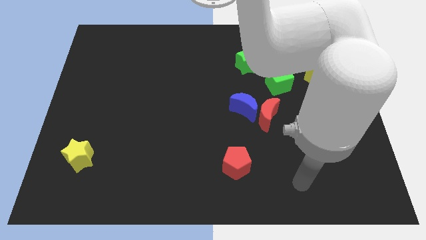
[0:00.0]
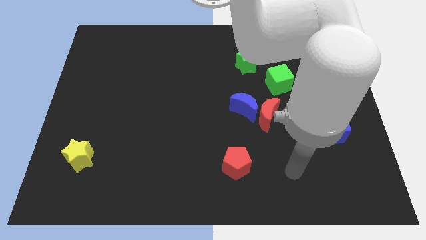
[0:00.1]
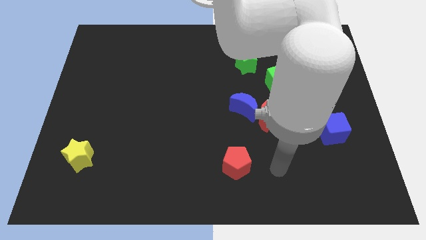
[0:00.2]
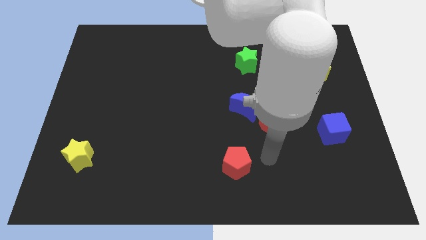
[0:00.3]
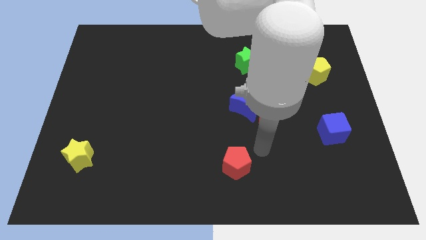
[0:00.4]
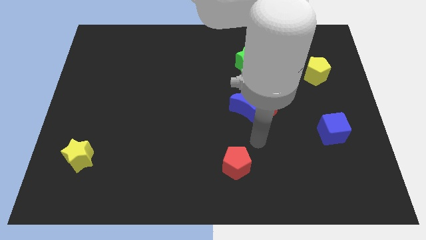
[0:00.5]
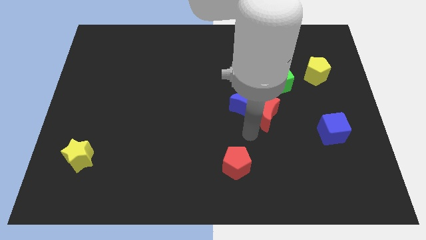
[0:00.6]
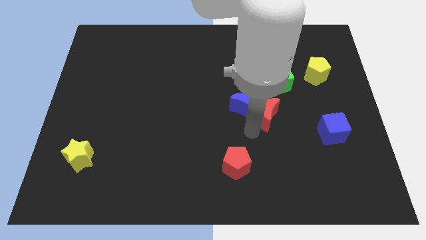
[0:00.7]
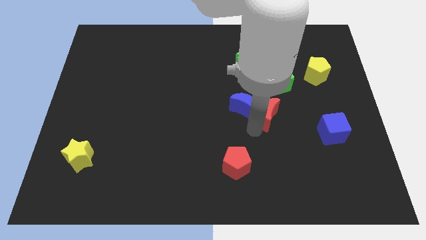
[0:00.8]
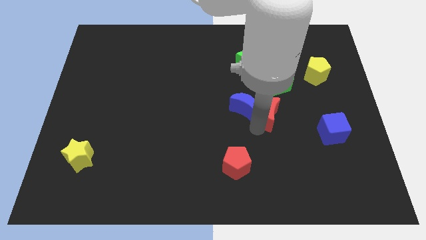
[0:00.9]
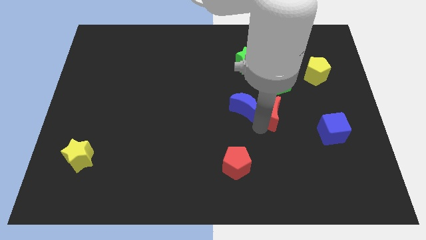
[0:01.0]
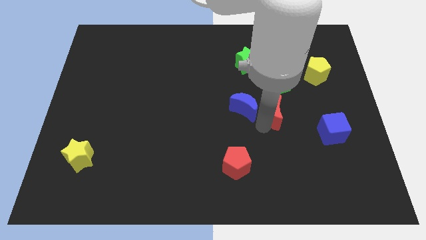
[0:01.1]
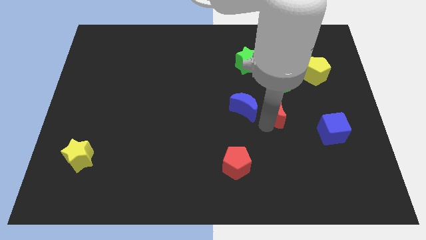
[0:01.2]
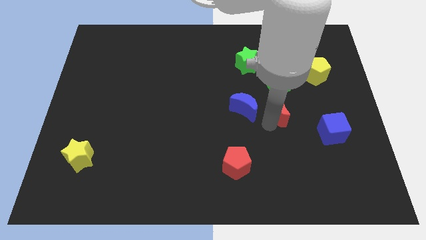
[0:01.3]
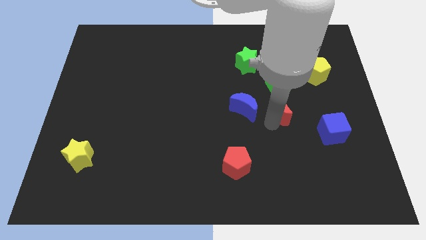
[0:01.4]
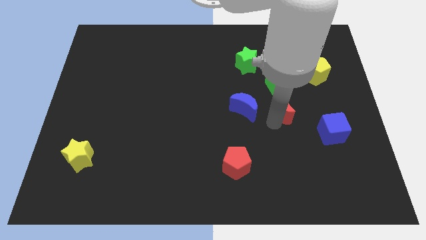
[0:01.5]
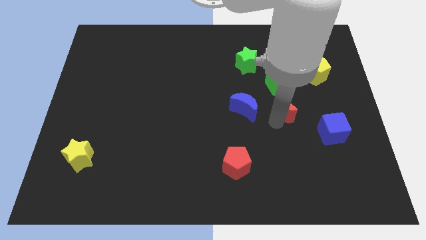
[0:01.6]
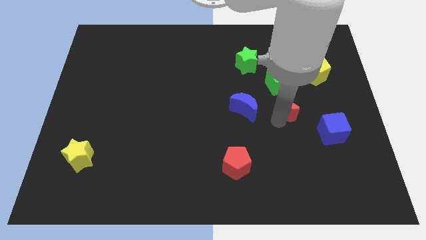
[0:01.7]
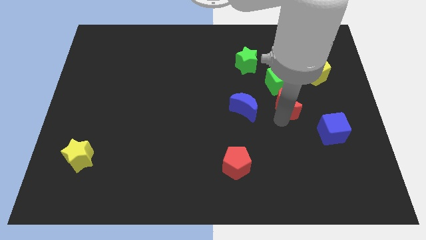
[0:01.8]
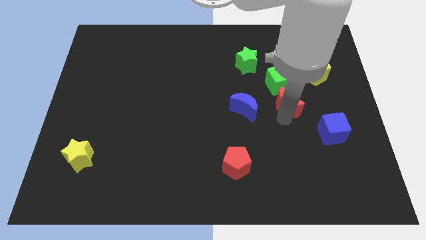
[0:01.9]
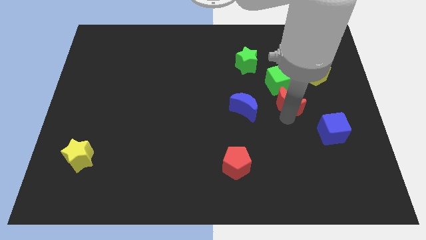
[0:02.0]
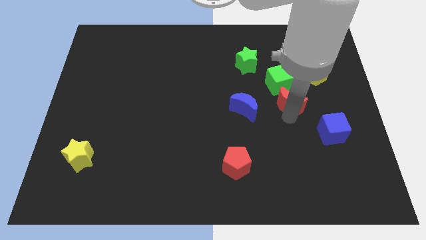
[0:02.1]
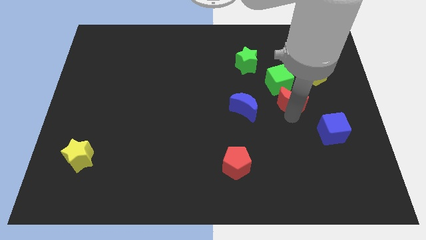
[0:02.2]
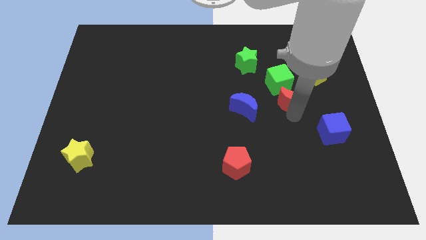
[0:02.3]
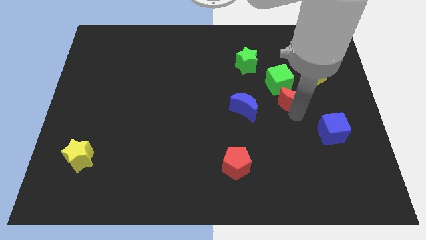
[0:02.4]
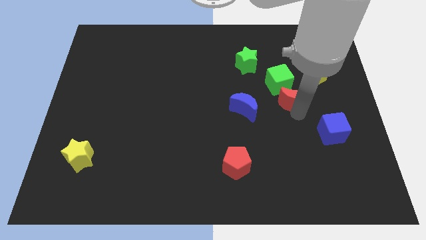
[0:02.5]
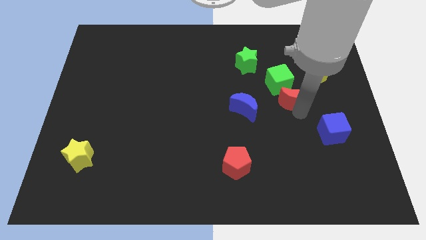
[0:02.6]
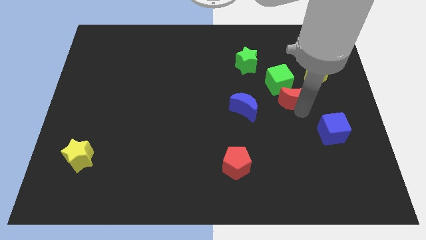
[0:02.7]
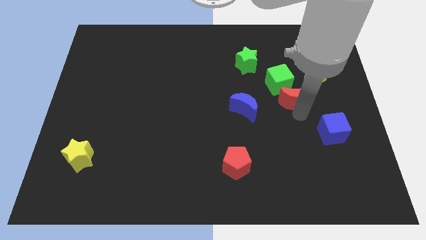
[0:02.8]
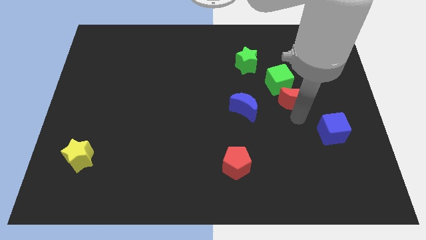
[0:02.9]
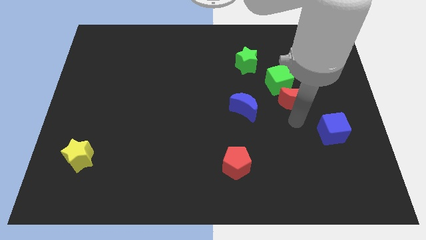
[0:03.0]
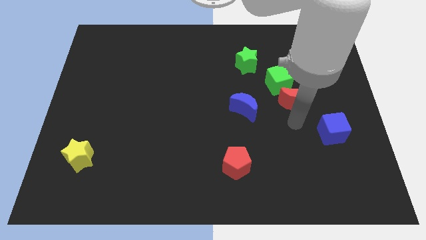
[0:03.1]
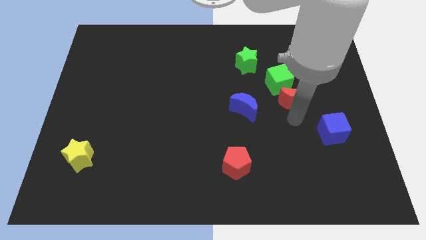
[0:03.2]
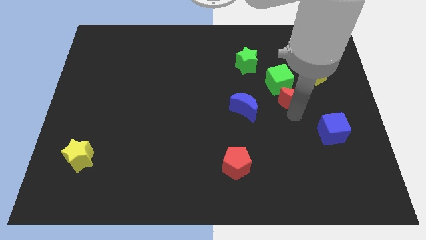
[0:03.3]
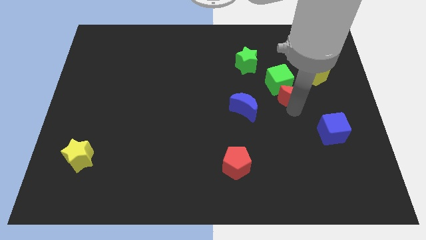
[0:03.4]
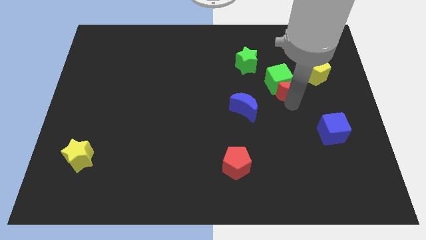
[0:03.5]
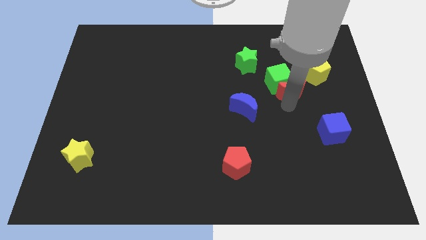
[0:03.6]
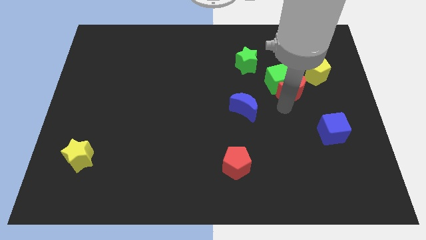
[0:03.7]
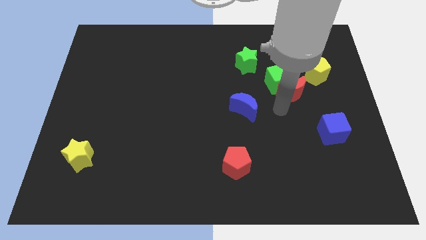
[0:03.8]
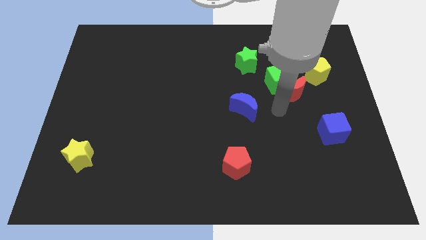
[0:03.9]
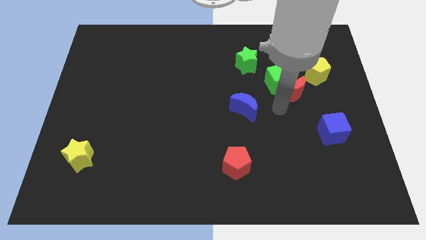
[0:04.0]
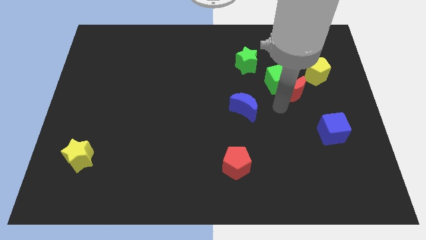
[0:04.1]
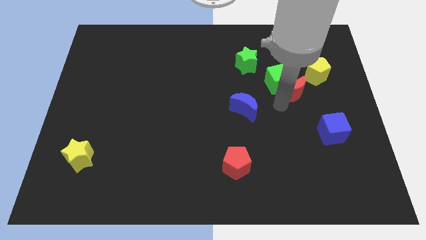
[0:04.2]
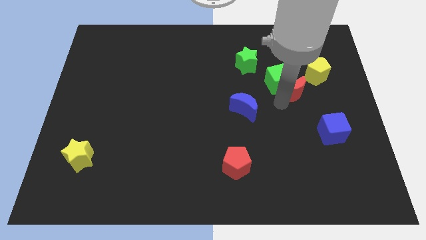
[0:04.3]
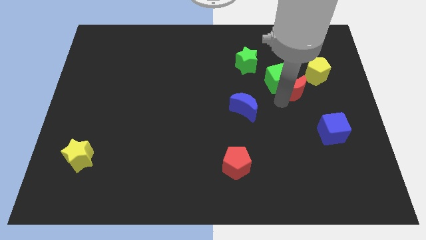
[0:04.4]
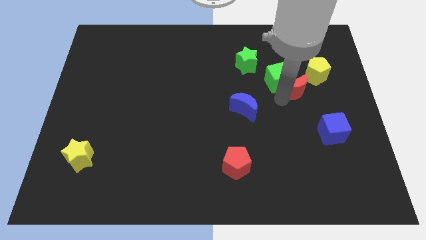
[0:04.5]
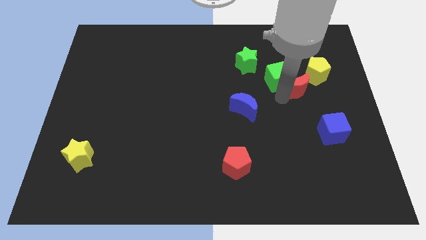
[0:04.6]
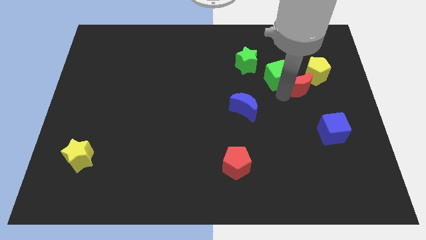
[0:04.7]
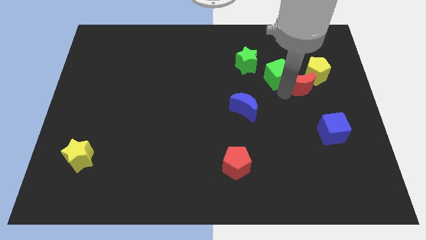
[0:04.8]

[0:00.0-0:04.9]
slide the red moon close to the yellow pentagon

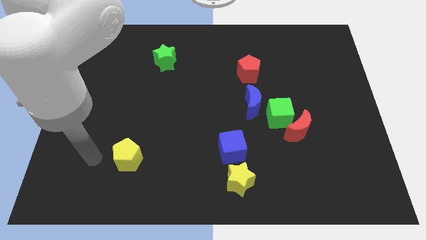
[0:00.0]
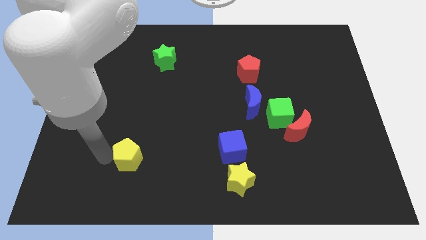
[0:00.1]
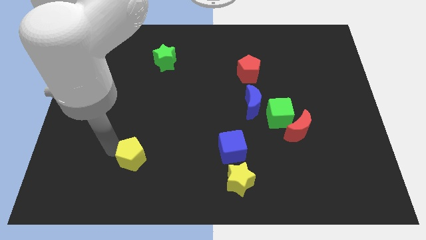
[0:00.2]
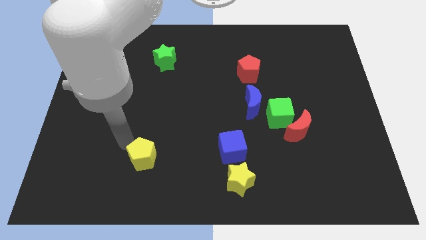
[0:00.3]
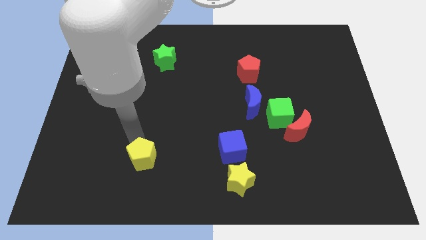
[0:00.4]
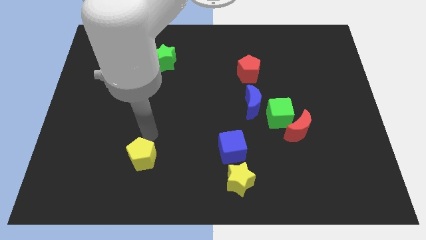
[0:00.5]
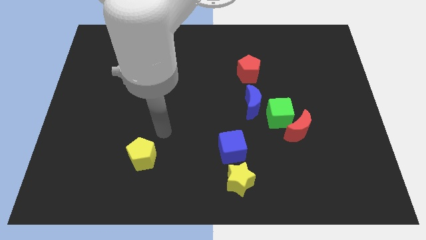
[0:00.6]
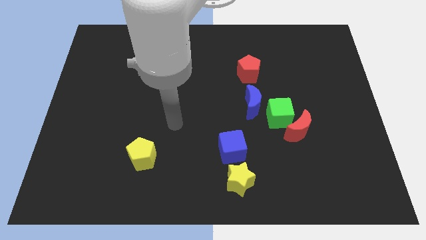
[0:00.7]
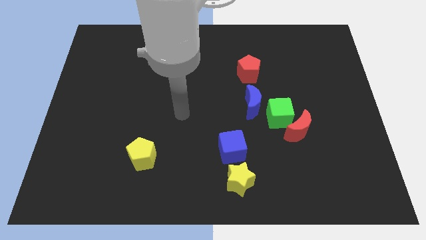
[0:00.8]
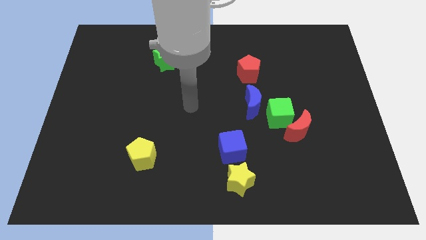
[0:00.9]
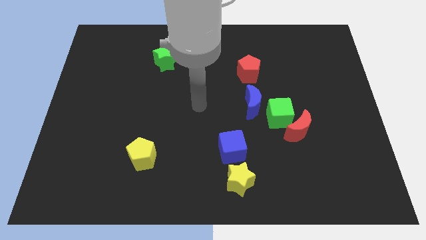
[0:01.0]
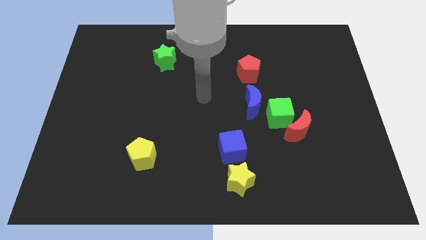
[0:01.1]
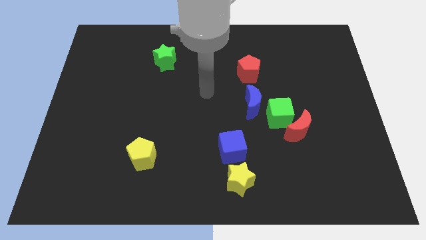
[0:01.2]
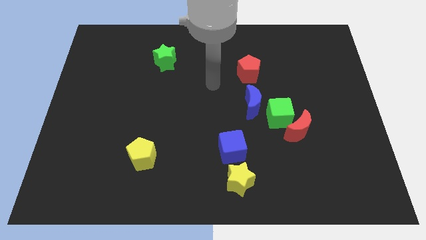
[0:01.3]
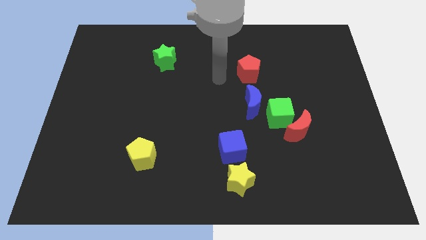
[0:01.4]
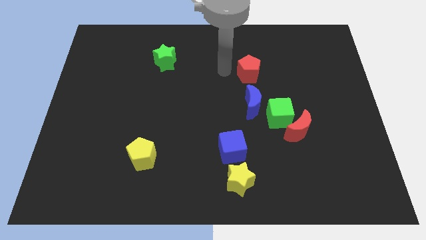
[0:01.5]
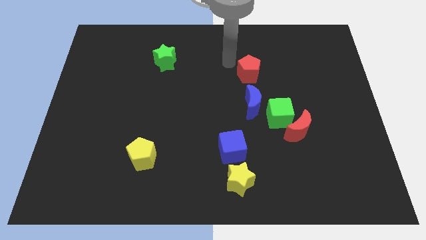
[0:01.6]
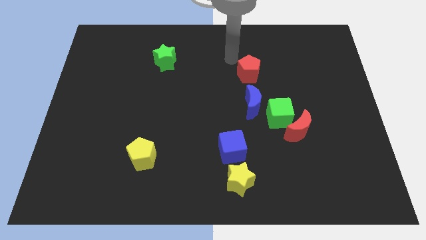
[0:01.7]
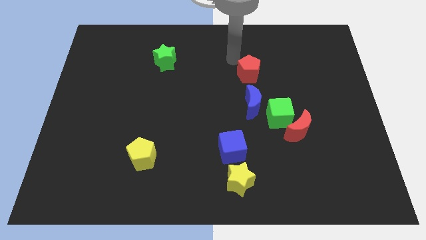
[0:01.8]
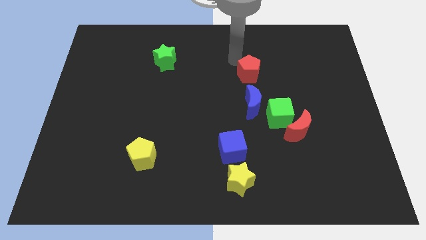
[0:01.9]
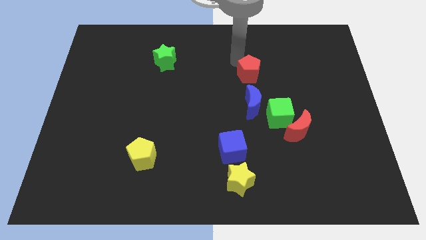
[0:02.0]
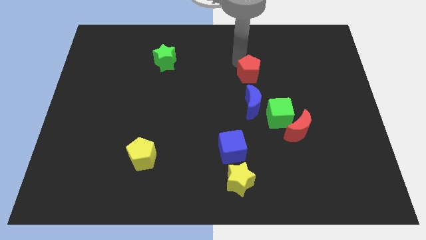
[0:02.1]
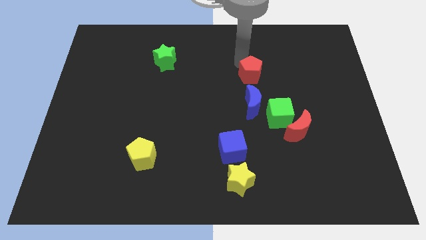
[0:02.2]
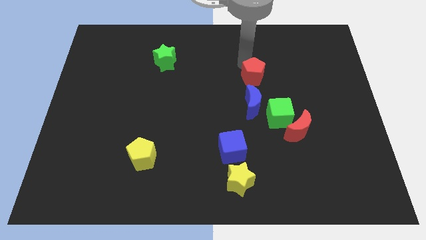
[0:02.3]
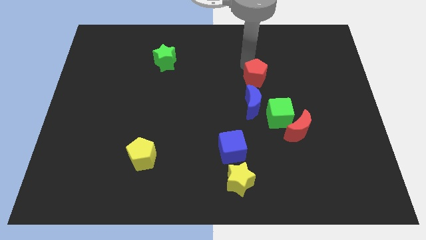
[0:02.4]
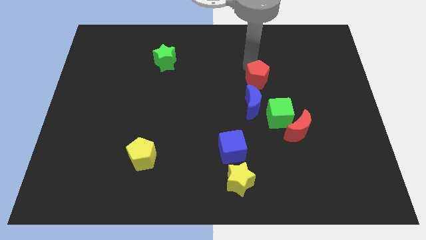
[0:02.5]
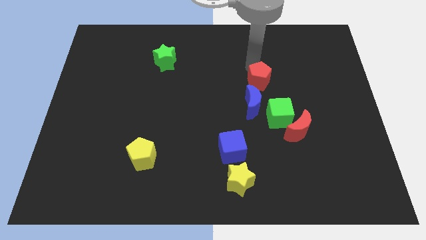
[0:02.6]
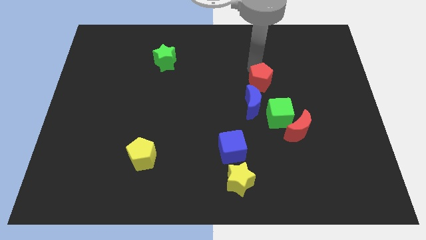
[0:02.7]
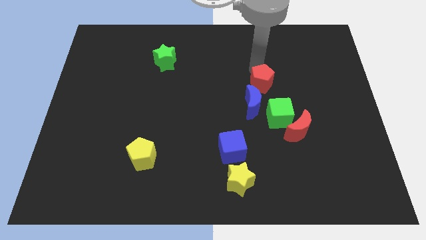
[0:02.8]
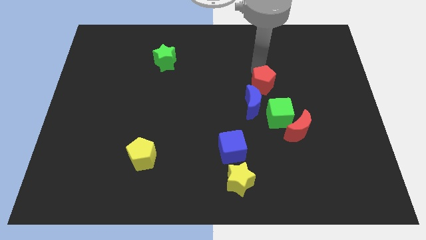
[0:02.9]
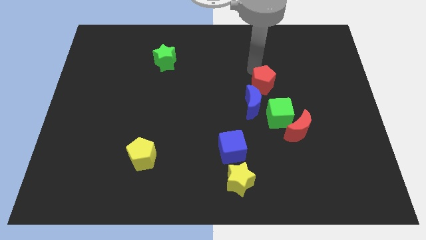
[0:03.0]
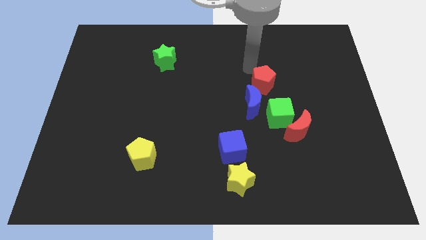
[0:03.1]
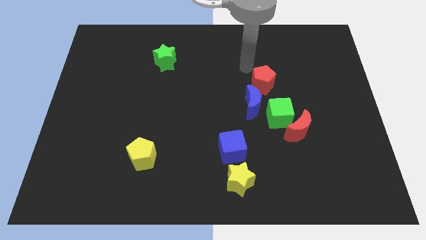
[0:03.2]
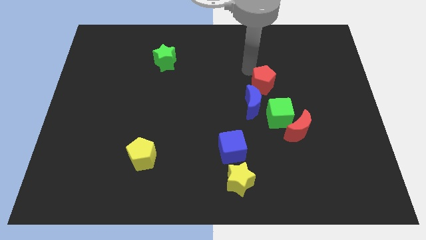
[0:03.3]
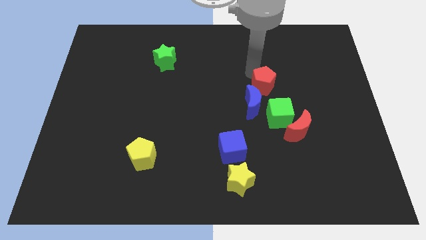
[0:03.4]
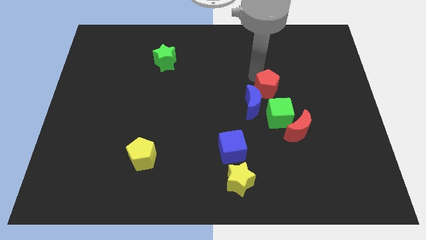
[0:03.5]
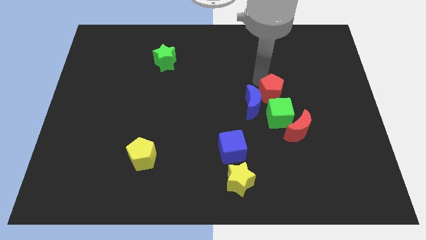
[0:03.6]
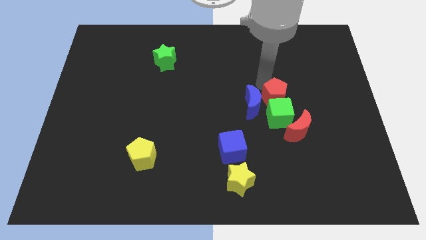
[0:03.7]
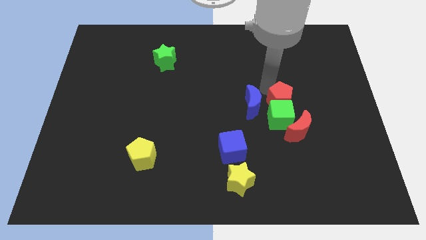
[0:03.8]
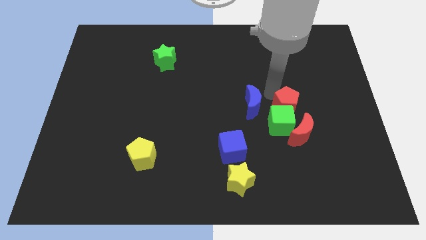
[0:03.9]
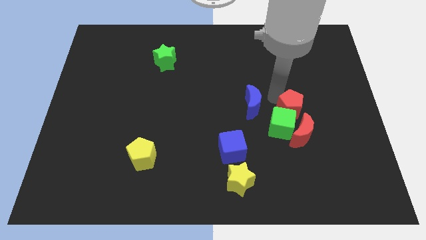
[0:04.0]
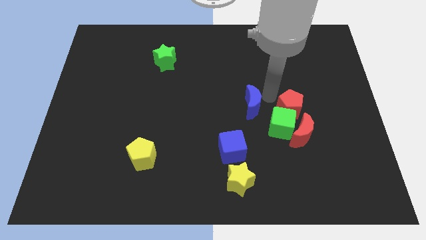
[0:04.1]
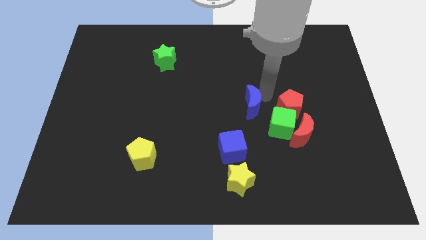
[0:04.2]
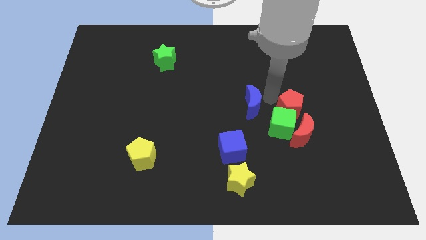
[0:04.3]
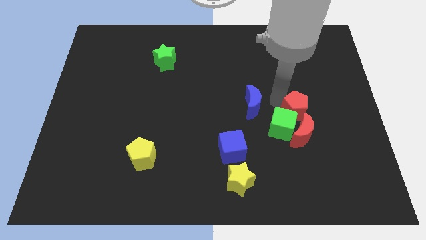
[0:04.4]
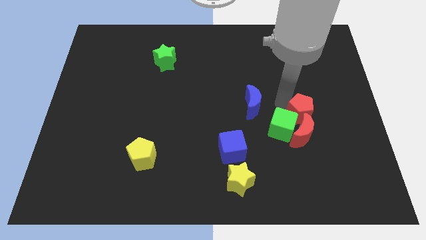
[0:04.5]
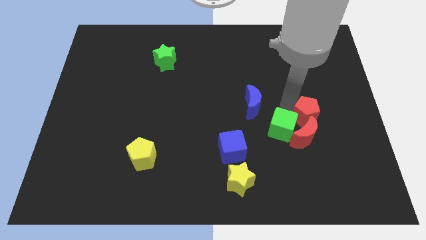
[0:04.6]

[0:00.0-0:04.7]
move the red pentagon towards the red moon
